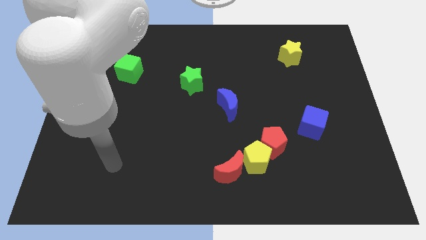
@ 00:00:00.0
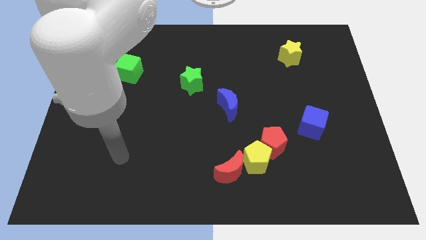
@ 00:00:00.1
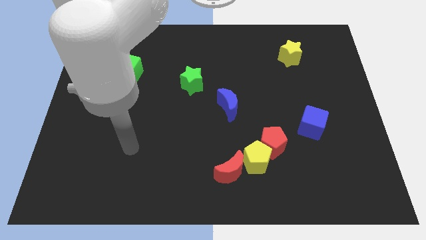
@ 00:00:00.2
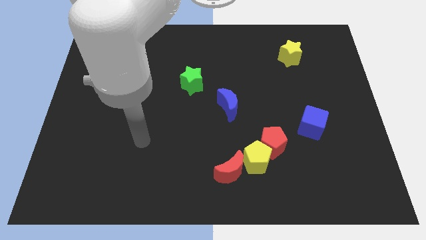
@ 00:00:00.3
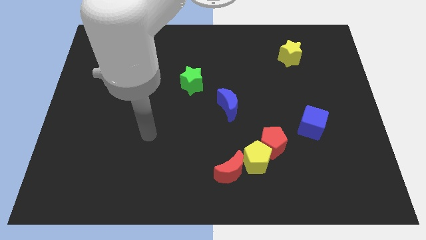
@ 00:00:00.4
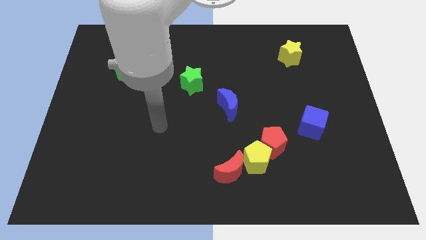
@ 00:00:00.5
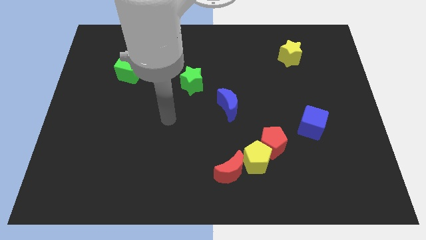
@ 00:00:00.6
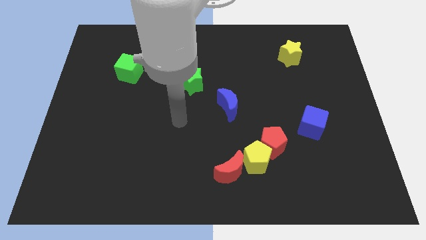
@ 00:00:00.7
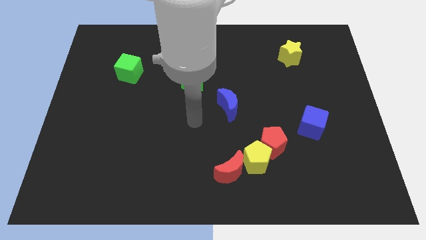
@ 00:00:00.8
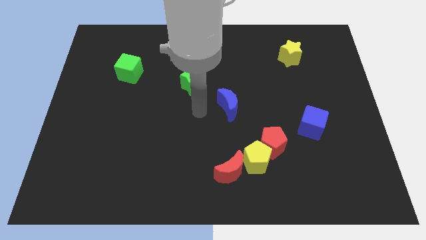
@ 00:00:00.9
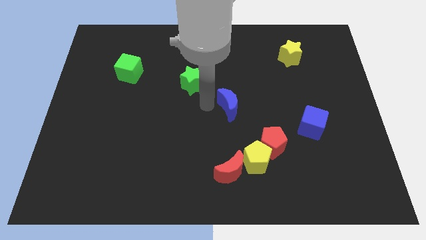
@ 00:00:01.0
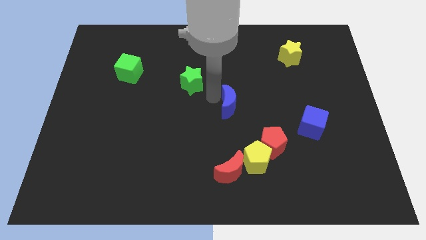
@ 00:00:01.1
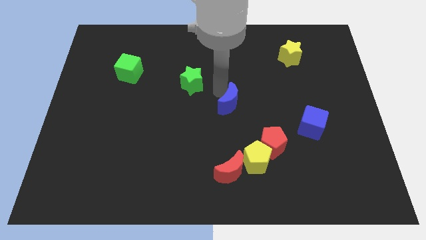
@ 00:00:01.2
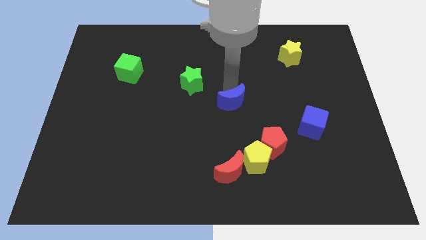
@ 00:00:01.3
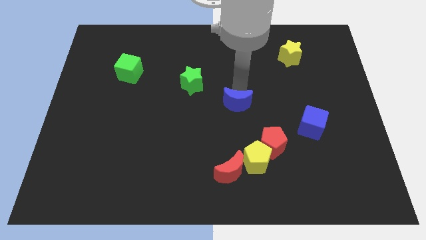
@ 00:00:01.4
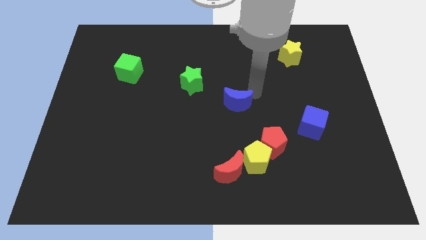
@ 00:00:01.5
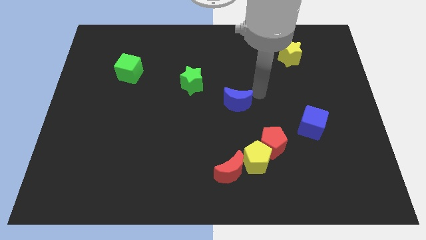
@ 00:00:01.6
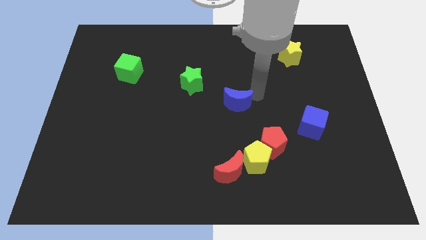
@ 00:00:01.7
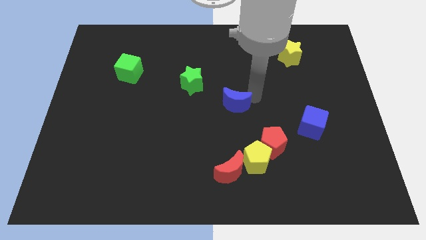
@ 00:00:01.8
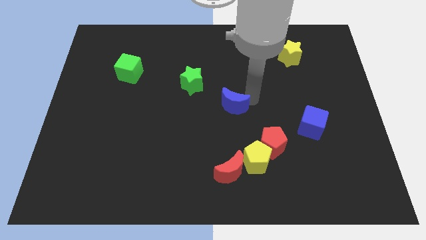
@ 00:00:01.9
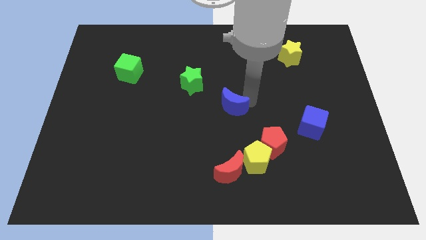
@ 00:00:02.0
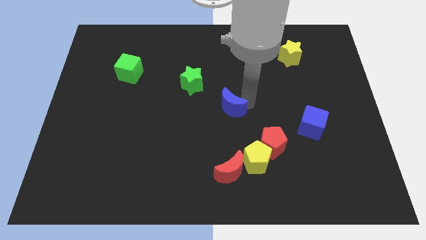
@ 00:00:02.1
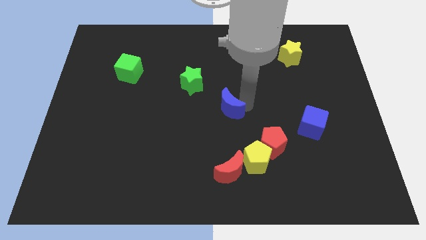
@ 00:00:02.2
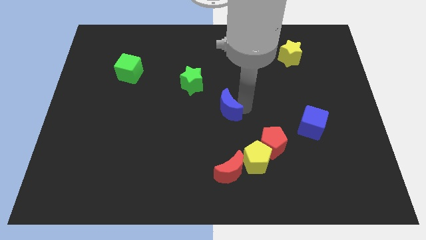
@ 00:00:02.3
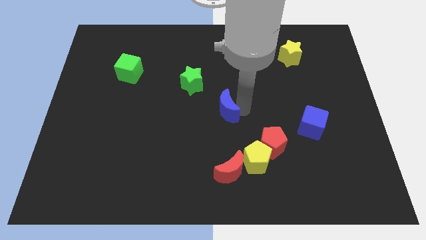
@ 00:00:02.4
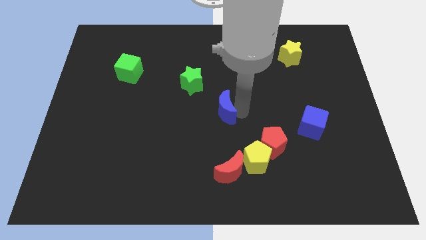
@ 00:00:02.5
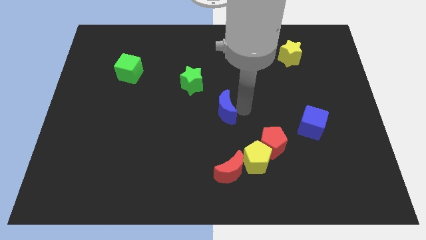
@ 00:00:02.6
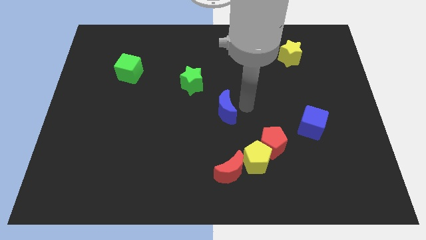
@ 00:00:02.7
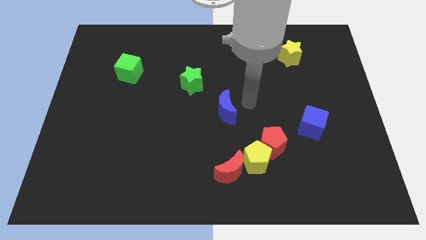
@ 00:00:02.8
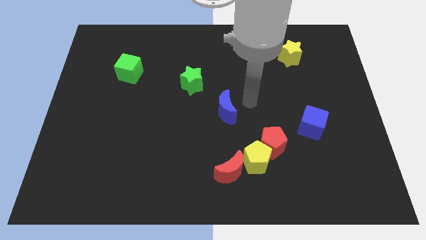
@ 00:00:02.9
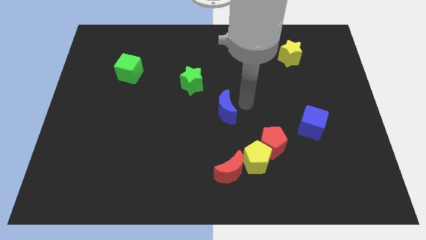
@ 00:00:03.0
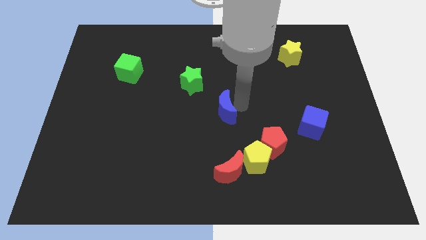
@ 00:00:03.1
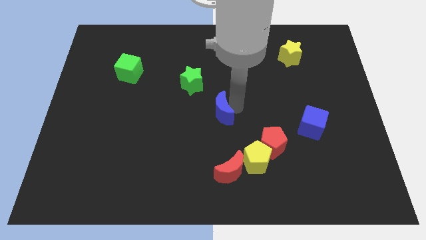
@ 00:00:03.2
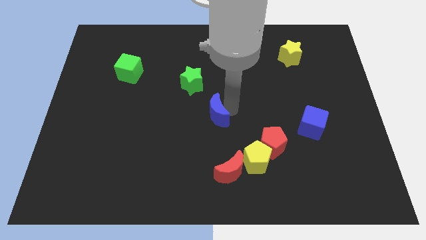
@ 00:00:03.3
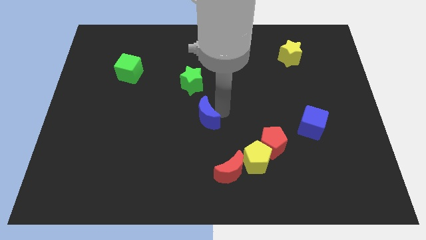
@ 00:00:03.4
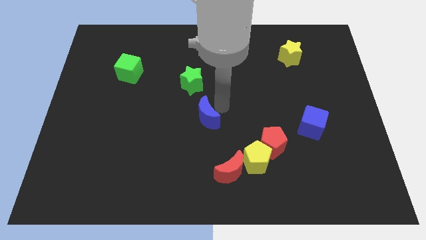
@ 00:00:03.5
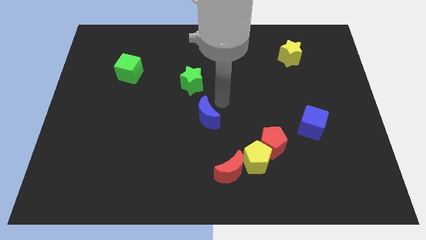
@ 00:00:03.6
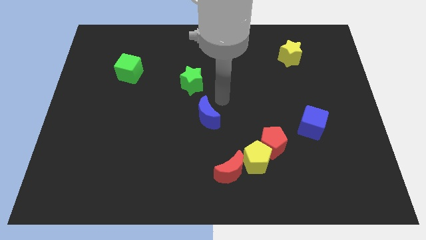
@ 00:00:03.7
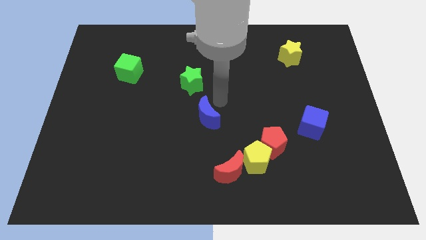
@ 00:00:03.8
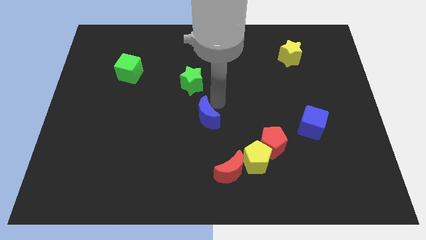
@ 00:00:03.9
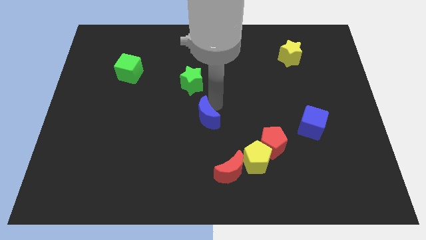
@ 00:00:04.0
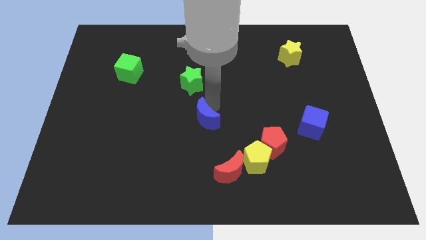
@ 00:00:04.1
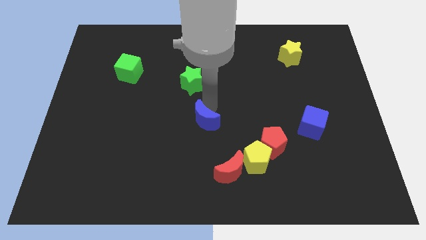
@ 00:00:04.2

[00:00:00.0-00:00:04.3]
move the blue moon diagonally downwards and to the left slightly

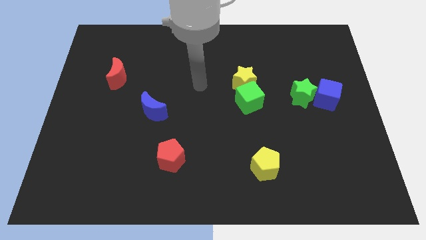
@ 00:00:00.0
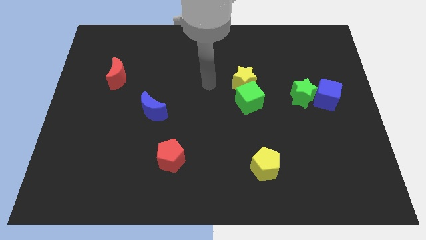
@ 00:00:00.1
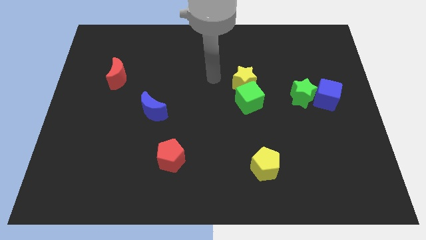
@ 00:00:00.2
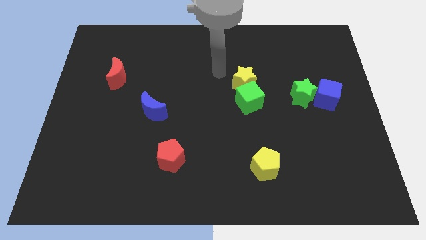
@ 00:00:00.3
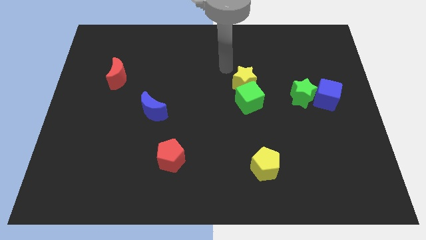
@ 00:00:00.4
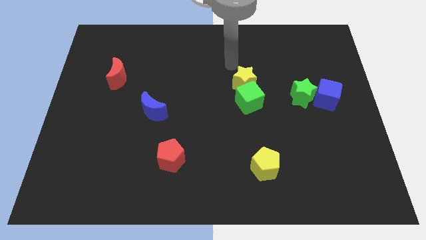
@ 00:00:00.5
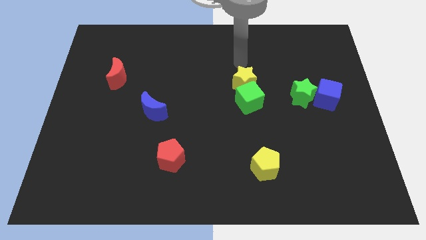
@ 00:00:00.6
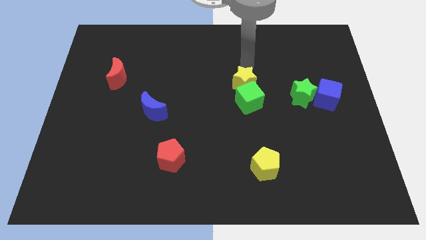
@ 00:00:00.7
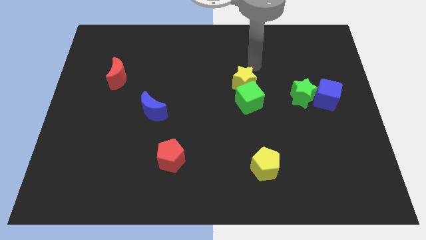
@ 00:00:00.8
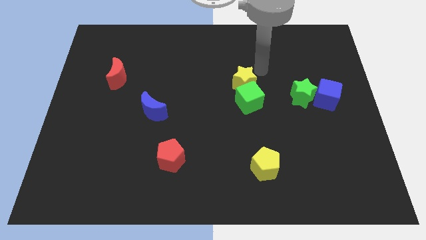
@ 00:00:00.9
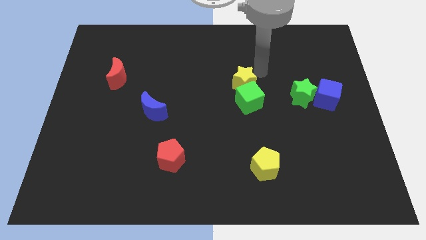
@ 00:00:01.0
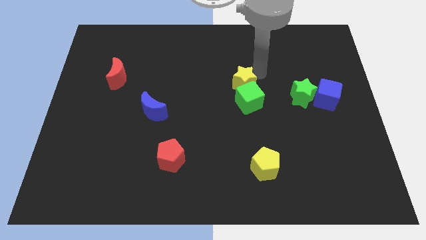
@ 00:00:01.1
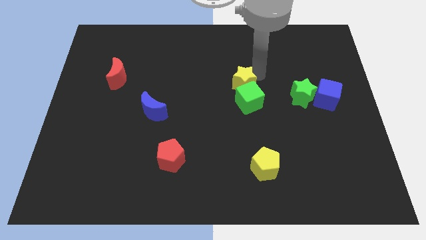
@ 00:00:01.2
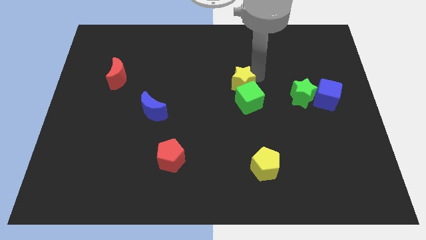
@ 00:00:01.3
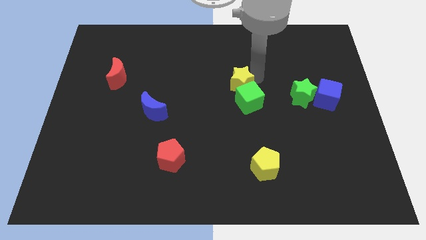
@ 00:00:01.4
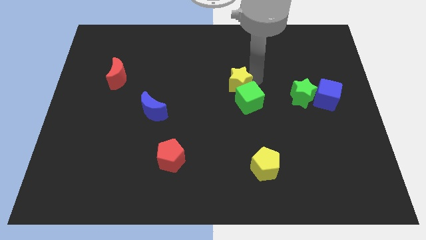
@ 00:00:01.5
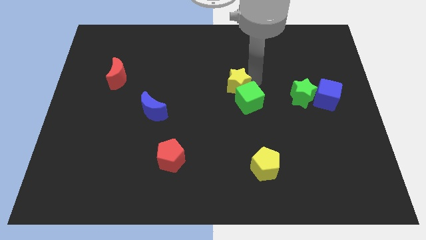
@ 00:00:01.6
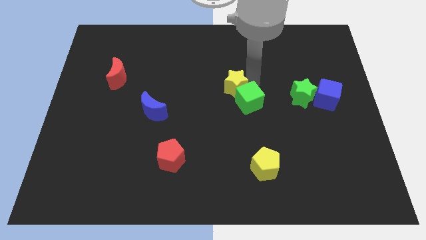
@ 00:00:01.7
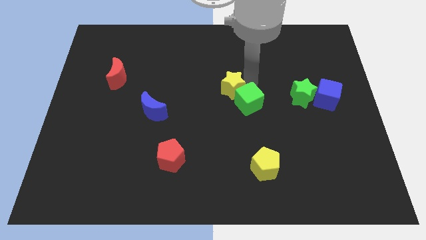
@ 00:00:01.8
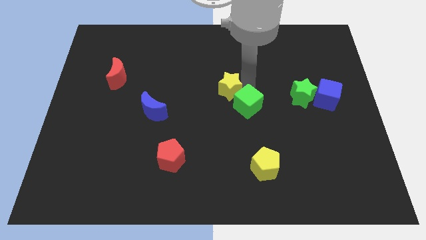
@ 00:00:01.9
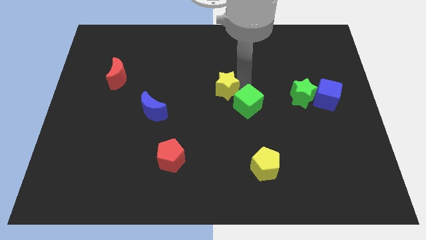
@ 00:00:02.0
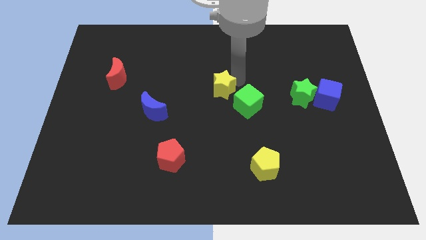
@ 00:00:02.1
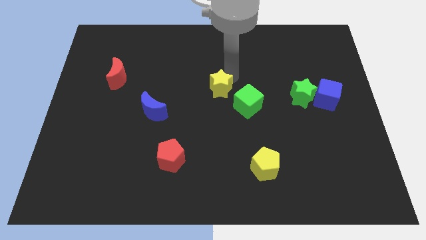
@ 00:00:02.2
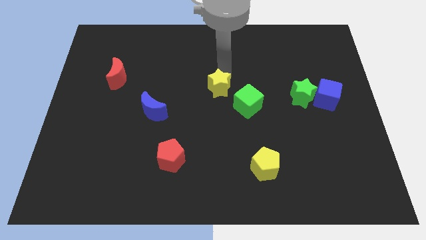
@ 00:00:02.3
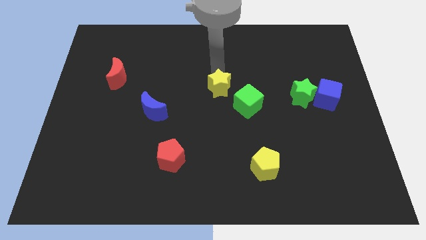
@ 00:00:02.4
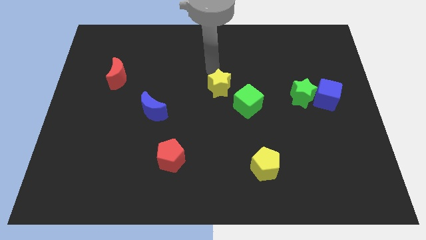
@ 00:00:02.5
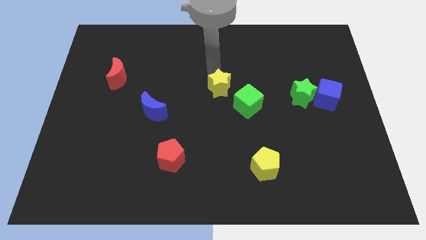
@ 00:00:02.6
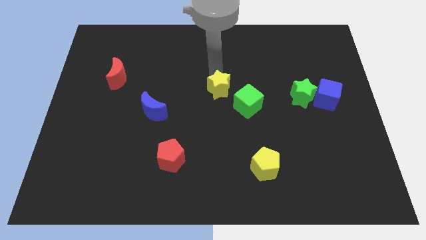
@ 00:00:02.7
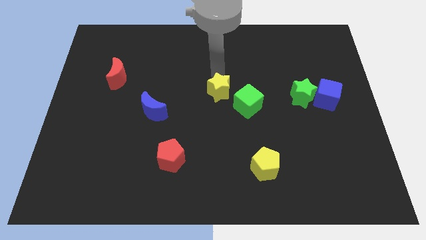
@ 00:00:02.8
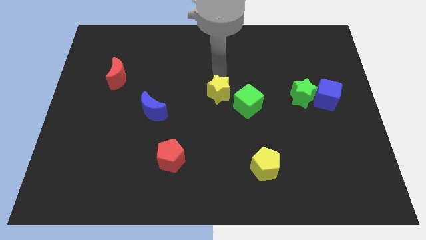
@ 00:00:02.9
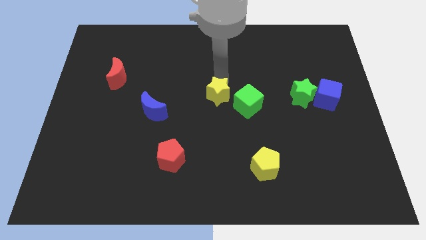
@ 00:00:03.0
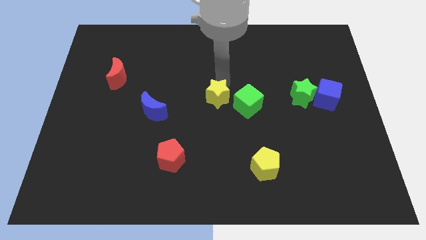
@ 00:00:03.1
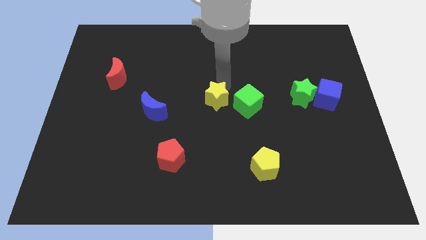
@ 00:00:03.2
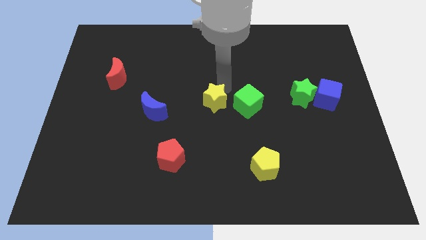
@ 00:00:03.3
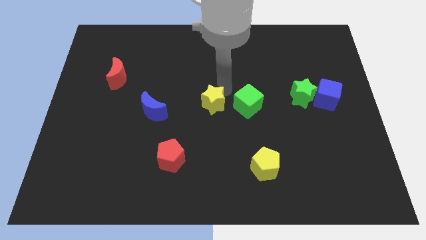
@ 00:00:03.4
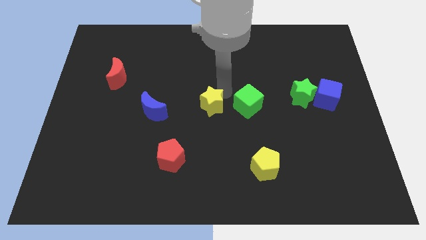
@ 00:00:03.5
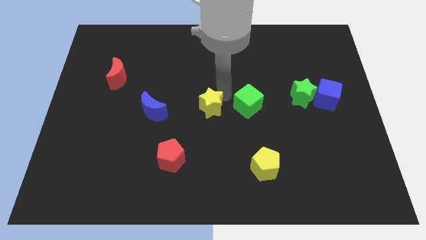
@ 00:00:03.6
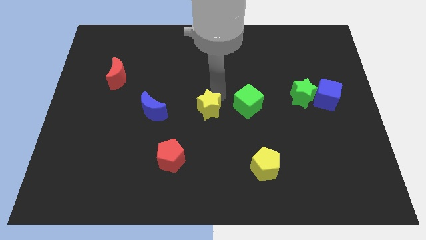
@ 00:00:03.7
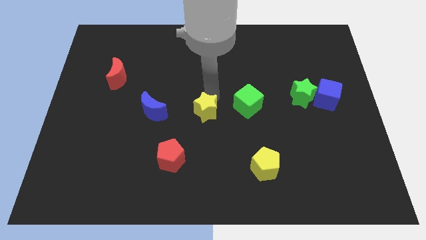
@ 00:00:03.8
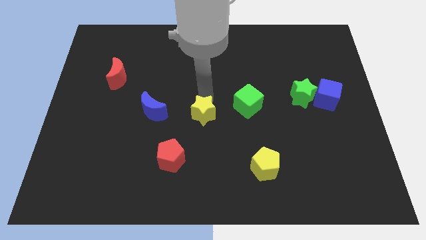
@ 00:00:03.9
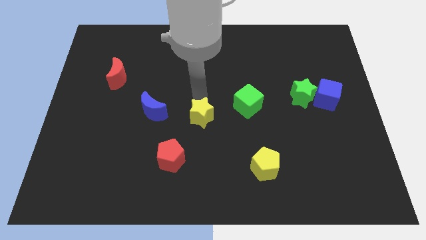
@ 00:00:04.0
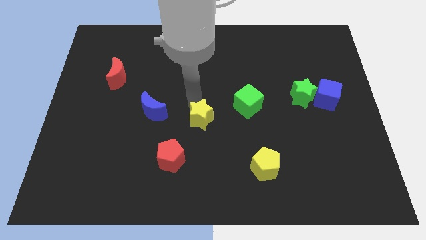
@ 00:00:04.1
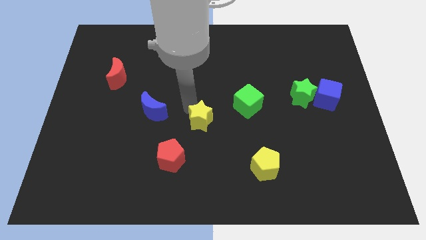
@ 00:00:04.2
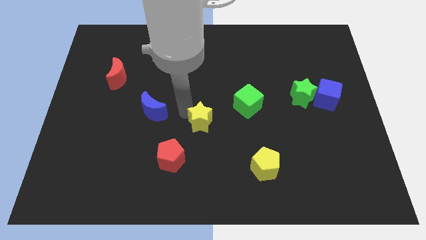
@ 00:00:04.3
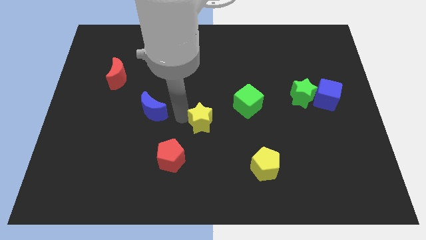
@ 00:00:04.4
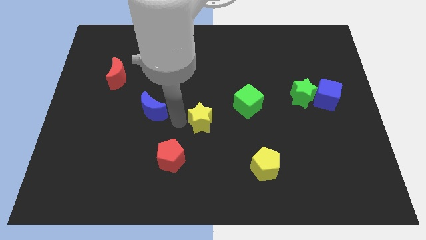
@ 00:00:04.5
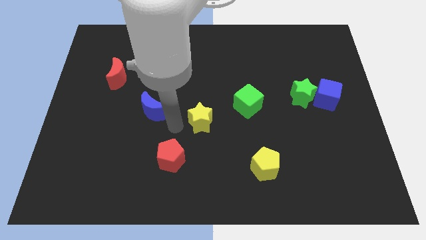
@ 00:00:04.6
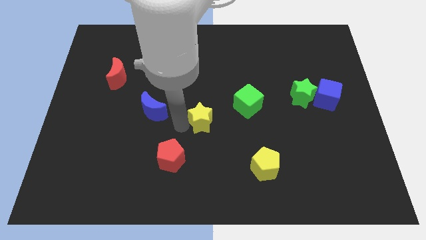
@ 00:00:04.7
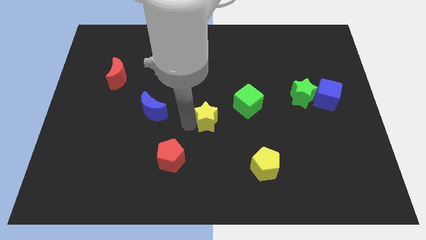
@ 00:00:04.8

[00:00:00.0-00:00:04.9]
slightly slide the yellow star down
